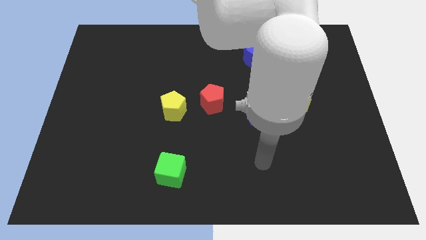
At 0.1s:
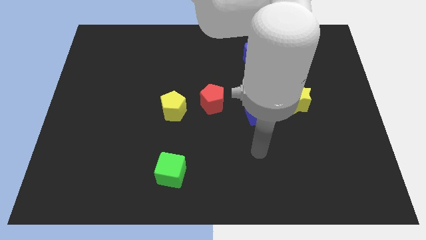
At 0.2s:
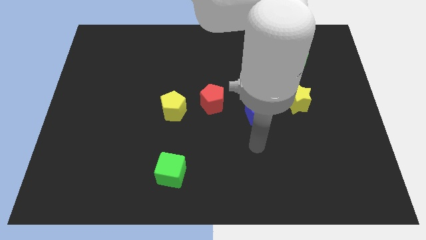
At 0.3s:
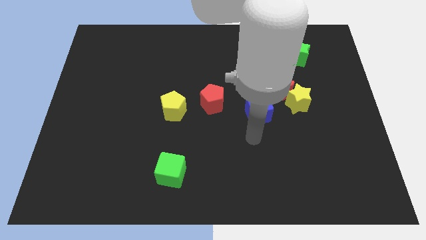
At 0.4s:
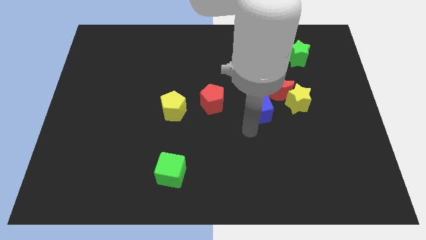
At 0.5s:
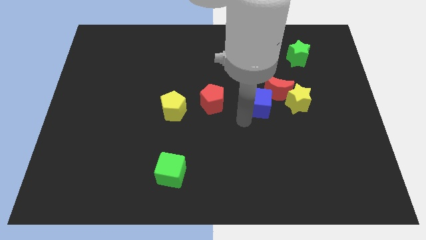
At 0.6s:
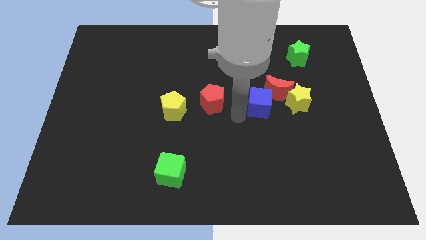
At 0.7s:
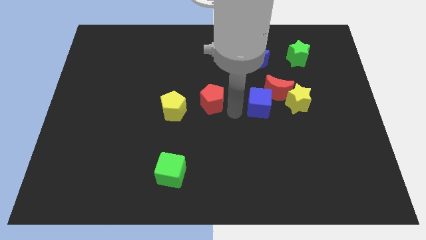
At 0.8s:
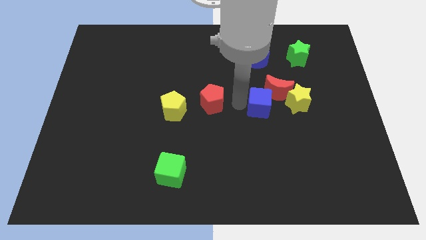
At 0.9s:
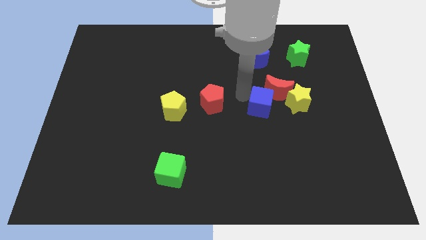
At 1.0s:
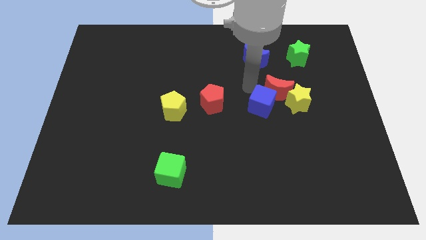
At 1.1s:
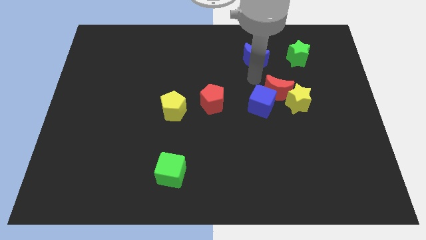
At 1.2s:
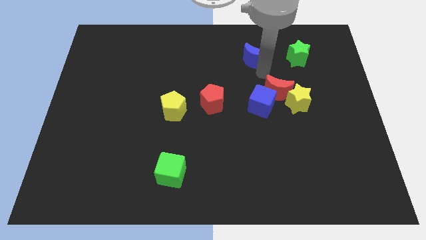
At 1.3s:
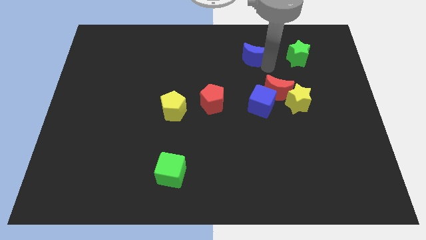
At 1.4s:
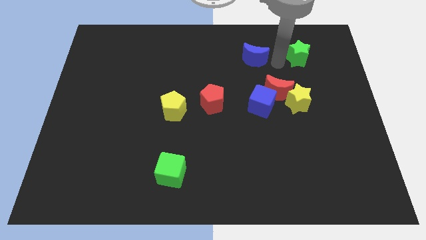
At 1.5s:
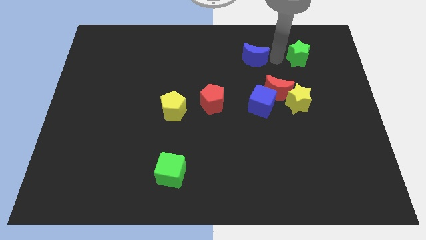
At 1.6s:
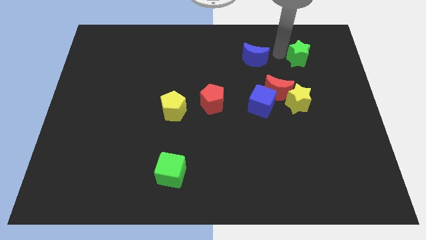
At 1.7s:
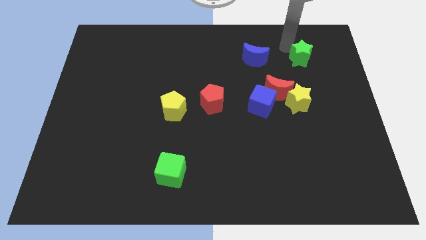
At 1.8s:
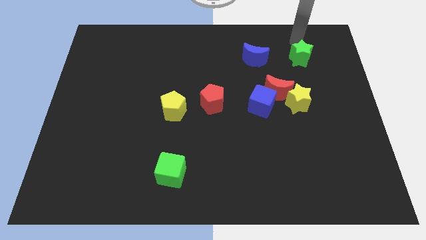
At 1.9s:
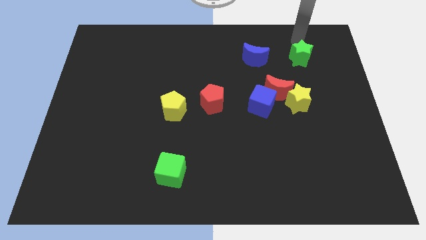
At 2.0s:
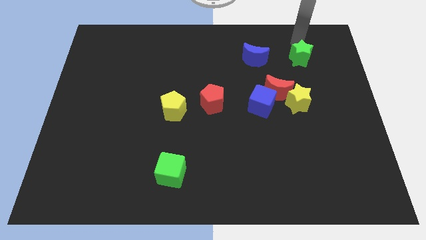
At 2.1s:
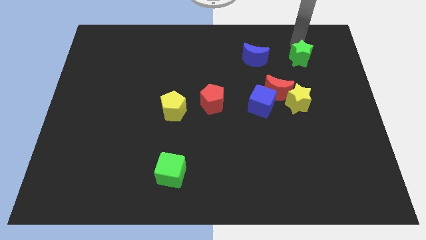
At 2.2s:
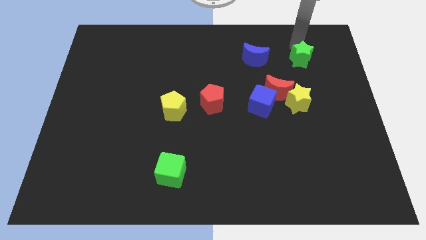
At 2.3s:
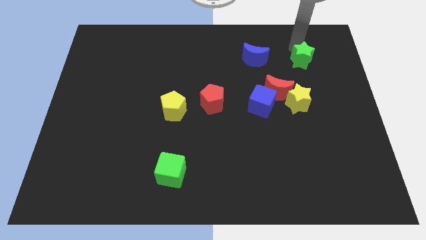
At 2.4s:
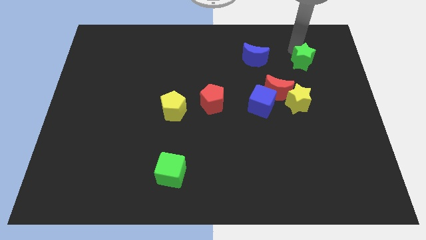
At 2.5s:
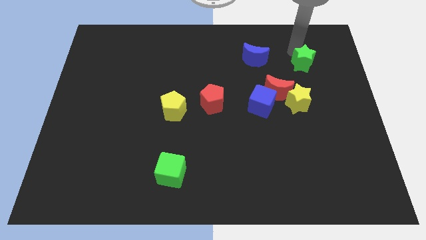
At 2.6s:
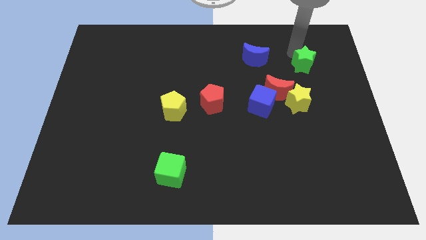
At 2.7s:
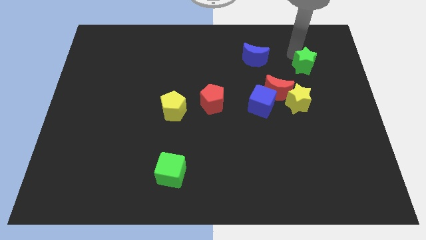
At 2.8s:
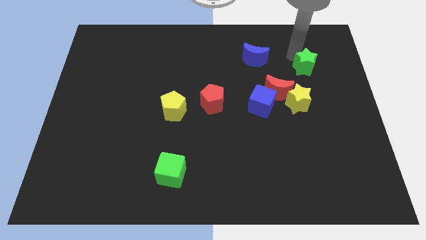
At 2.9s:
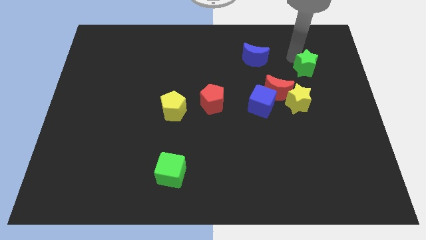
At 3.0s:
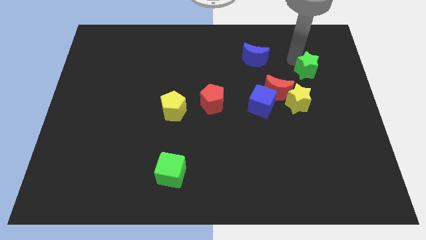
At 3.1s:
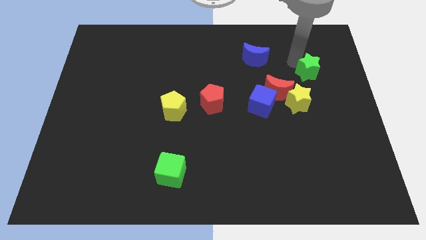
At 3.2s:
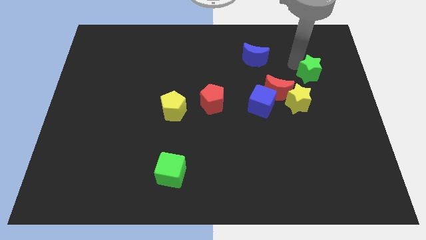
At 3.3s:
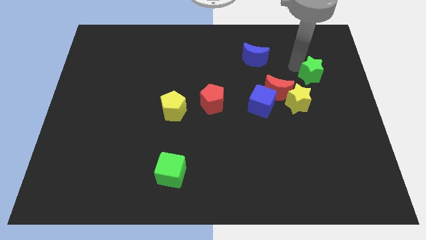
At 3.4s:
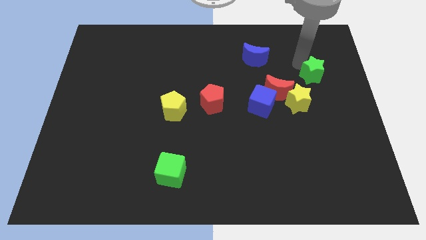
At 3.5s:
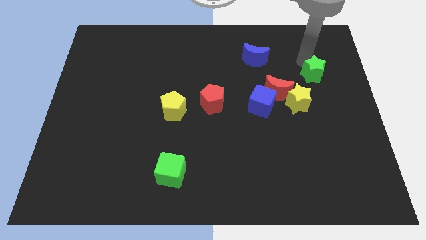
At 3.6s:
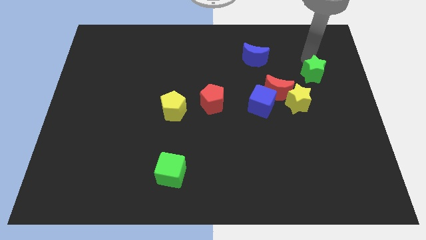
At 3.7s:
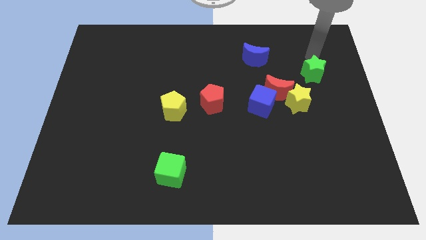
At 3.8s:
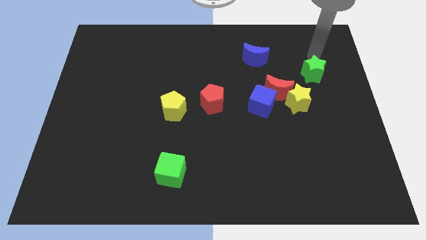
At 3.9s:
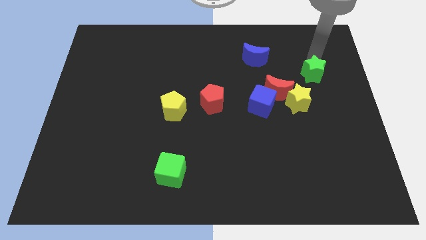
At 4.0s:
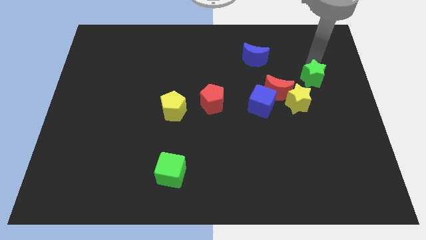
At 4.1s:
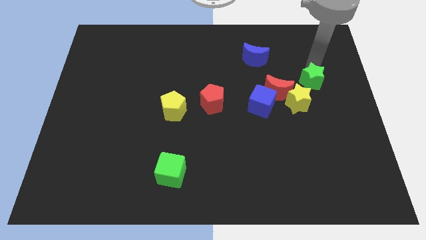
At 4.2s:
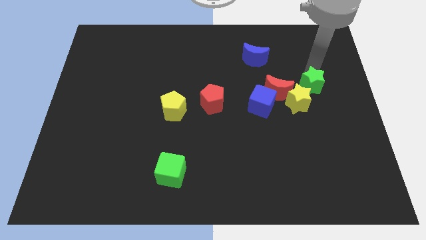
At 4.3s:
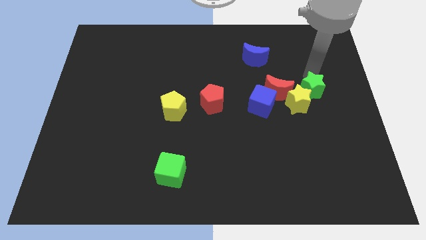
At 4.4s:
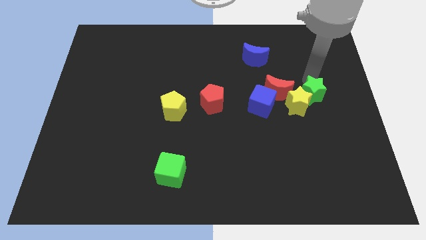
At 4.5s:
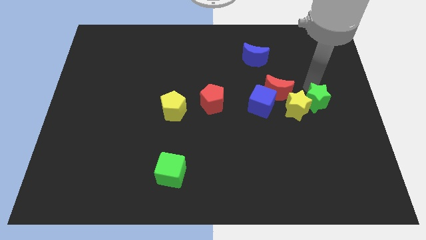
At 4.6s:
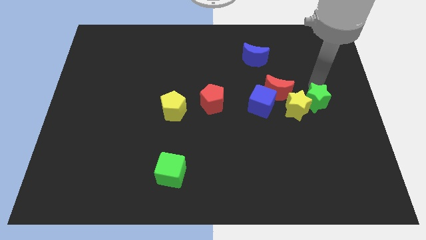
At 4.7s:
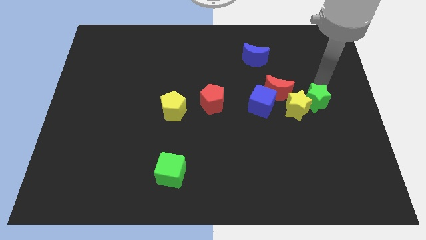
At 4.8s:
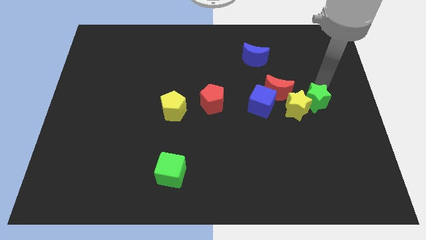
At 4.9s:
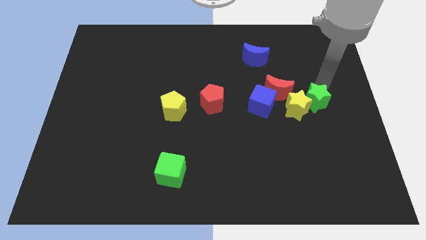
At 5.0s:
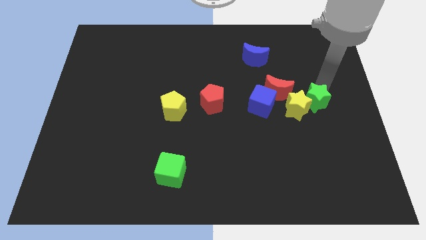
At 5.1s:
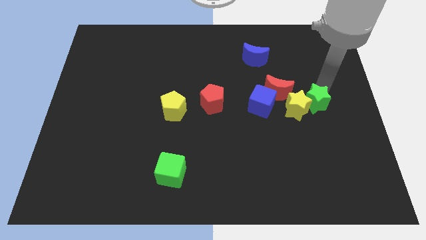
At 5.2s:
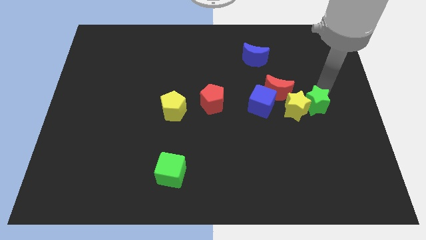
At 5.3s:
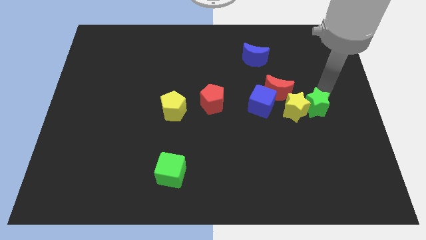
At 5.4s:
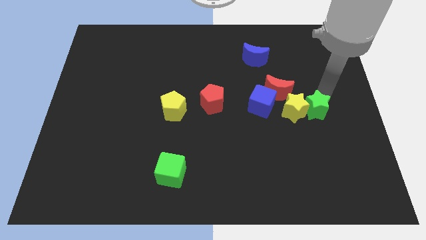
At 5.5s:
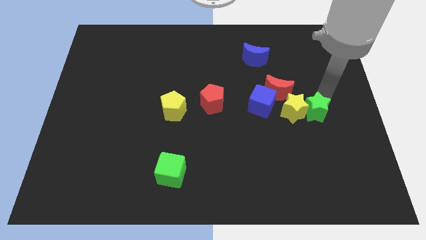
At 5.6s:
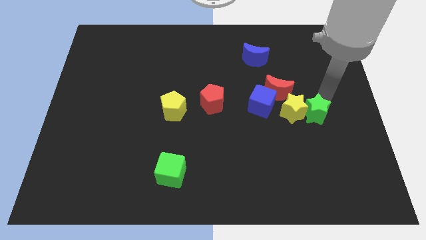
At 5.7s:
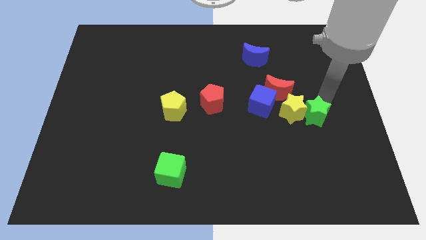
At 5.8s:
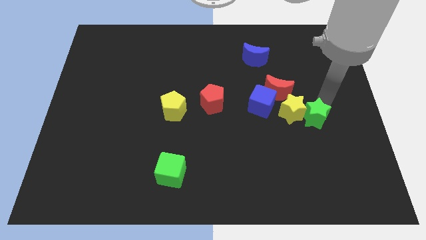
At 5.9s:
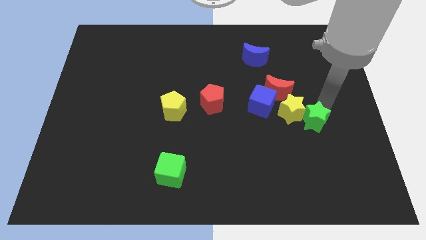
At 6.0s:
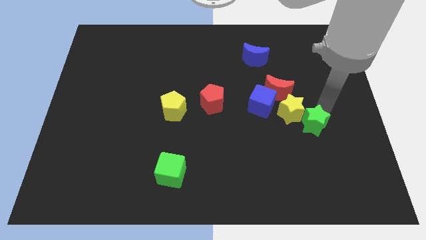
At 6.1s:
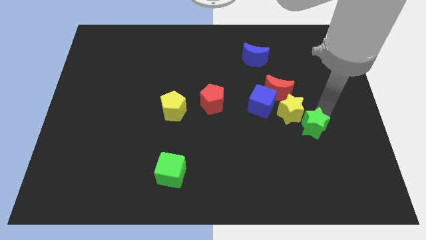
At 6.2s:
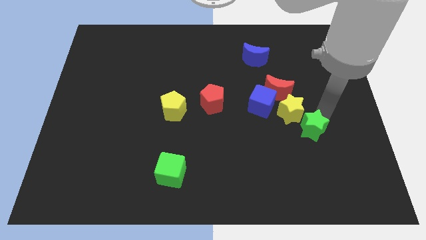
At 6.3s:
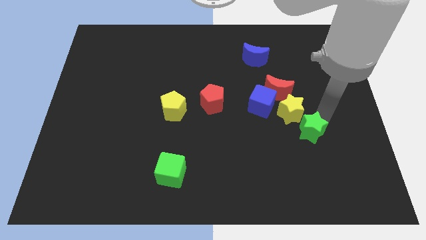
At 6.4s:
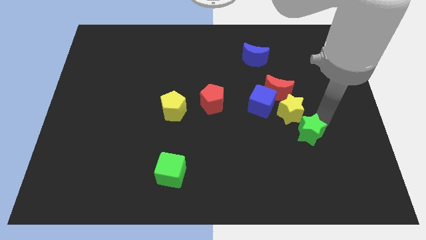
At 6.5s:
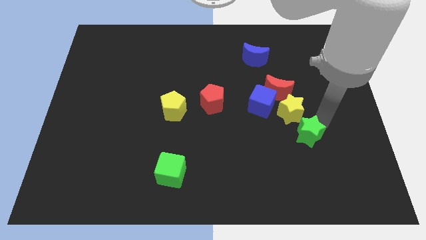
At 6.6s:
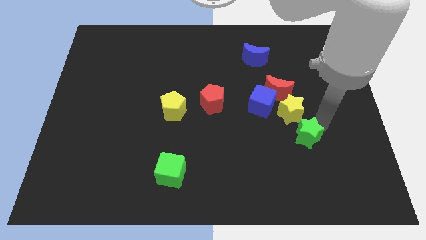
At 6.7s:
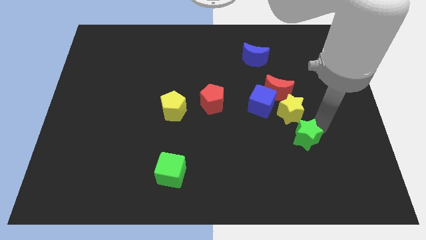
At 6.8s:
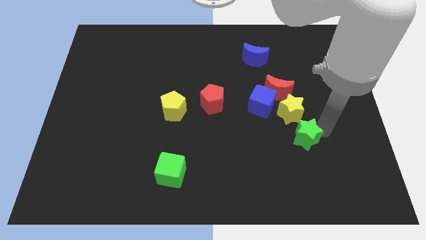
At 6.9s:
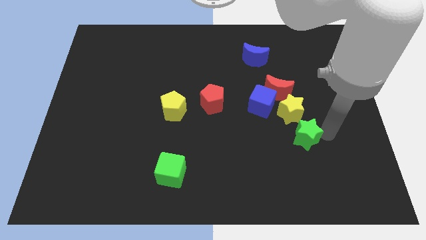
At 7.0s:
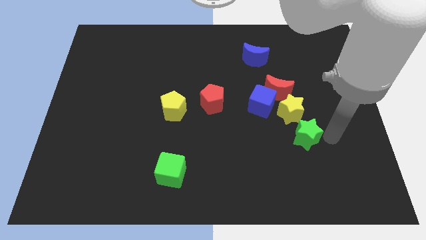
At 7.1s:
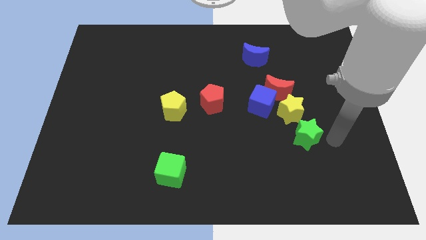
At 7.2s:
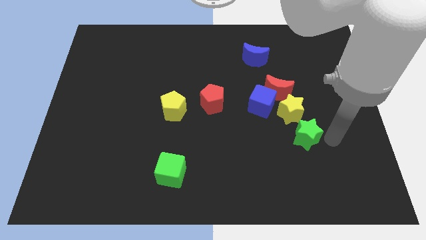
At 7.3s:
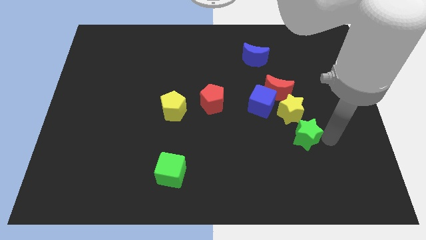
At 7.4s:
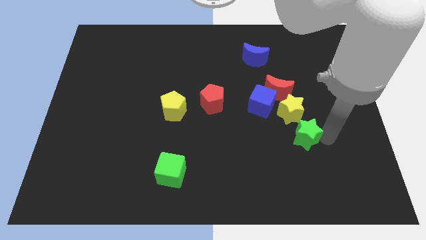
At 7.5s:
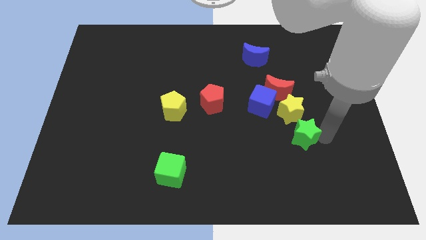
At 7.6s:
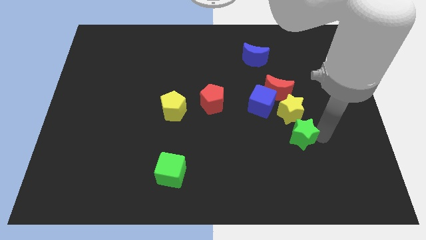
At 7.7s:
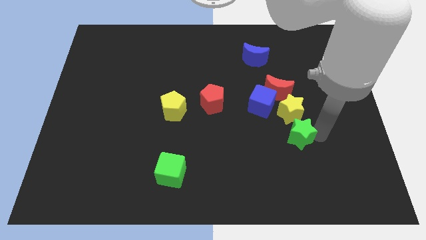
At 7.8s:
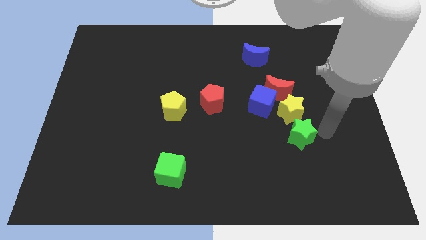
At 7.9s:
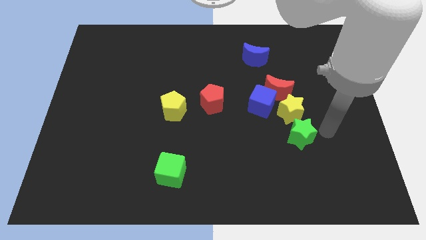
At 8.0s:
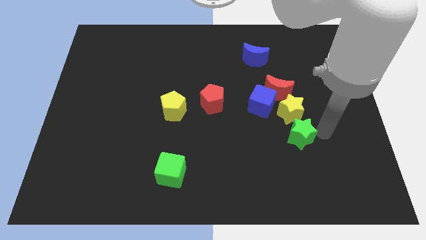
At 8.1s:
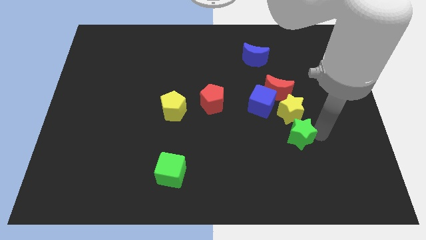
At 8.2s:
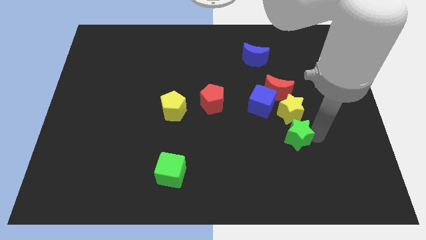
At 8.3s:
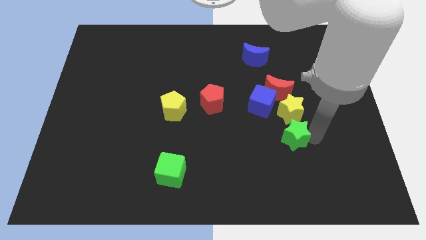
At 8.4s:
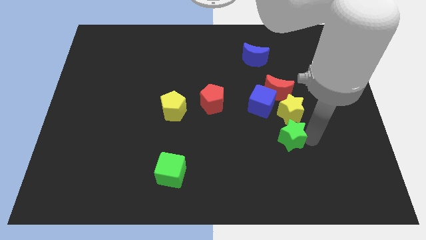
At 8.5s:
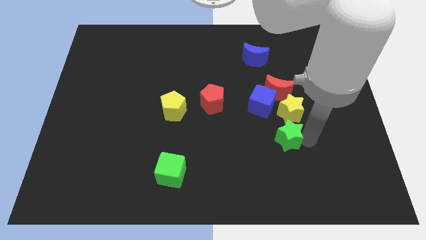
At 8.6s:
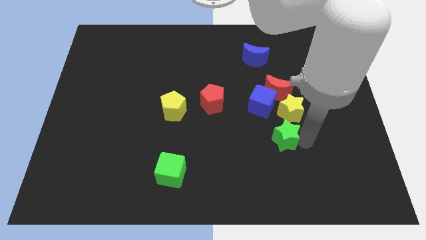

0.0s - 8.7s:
put the green star below the blue cube
